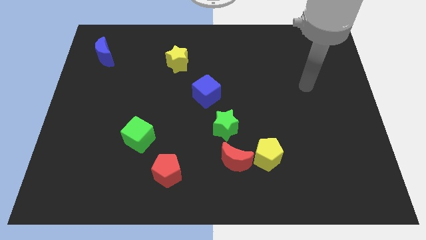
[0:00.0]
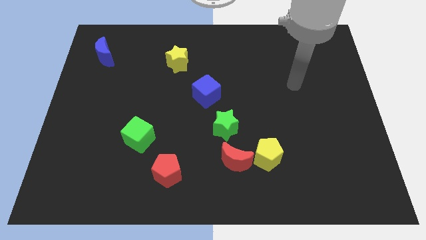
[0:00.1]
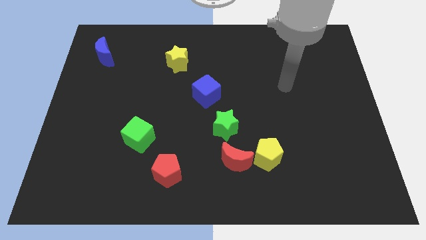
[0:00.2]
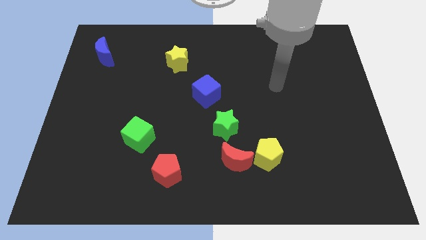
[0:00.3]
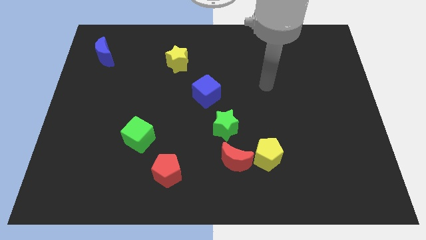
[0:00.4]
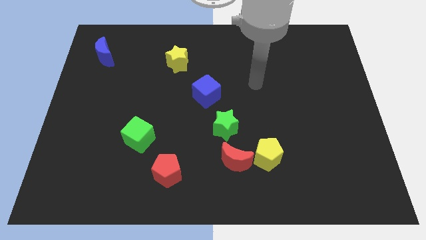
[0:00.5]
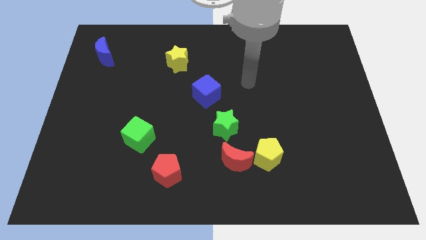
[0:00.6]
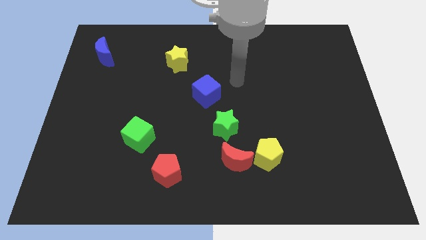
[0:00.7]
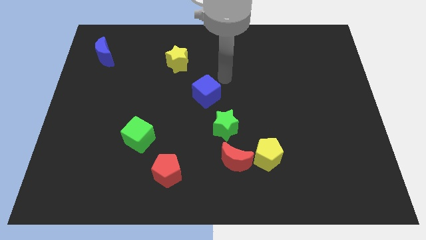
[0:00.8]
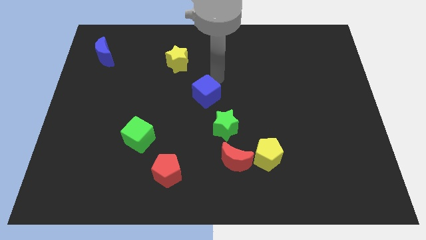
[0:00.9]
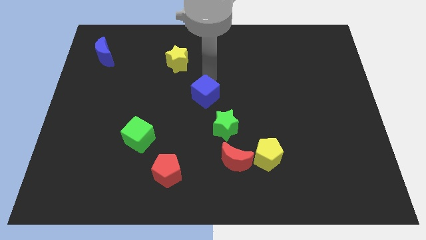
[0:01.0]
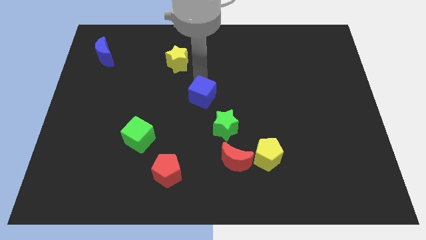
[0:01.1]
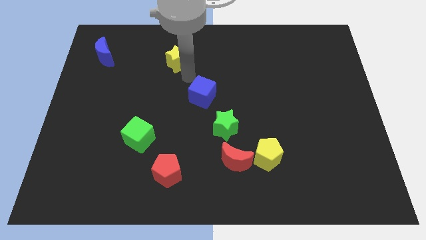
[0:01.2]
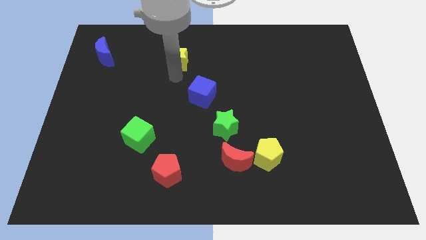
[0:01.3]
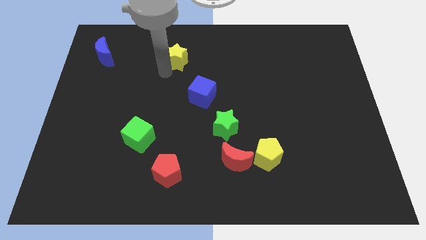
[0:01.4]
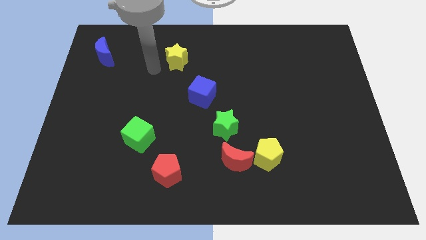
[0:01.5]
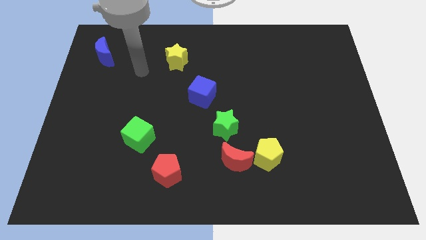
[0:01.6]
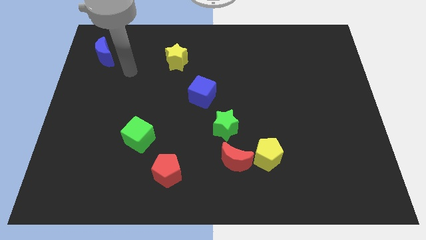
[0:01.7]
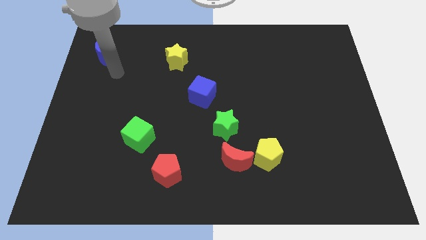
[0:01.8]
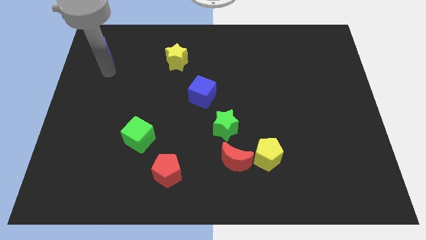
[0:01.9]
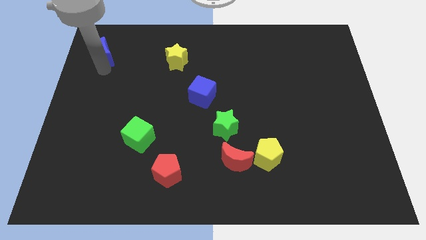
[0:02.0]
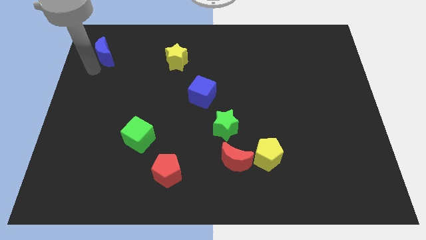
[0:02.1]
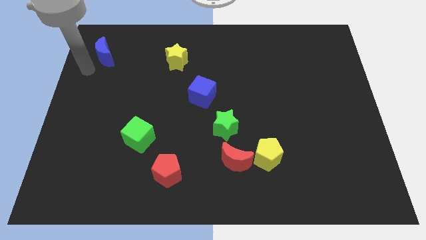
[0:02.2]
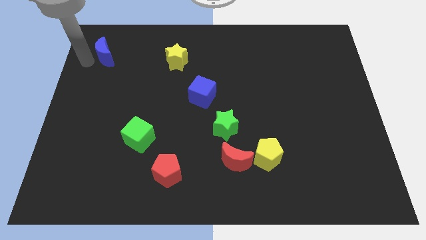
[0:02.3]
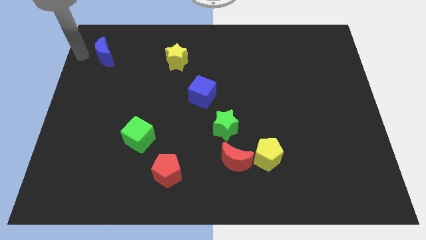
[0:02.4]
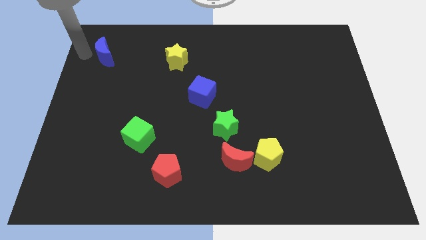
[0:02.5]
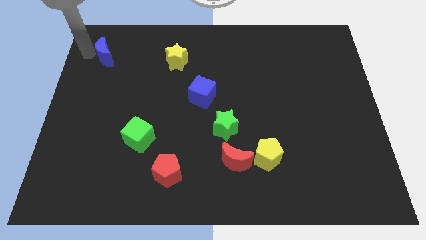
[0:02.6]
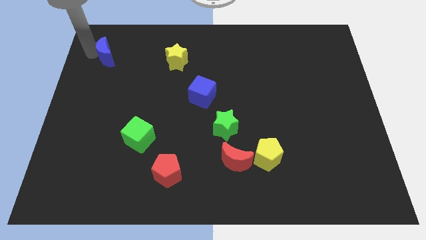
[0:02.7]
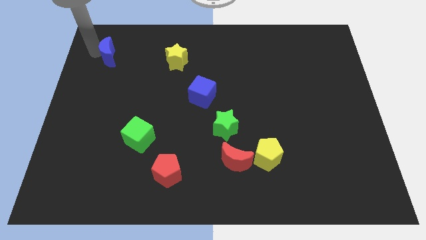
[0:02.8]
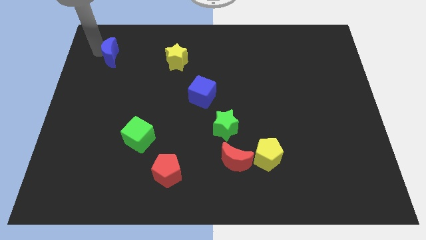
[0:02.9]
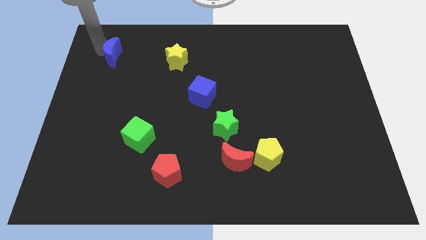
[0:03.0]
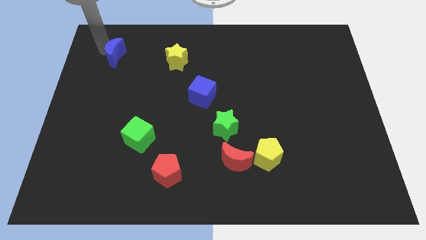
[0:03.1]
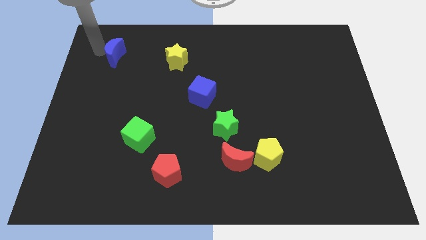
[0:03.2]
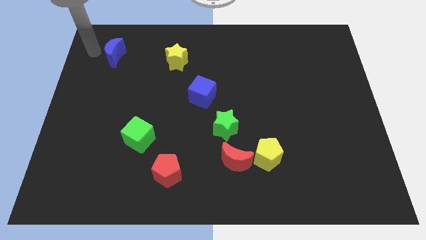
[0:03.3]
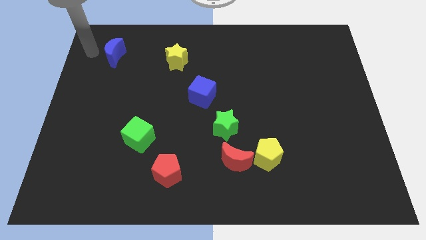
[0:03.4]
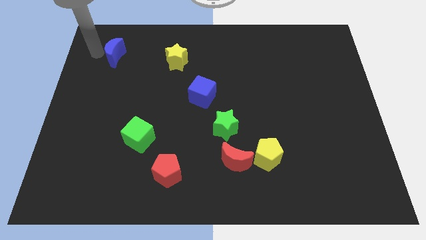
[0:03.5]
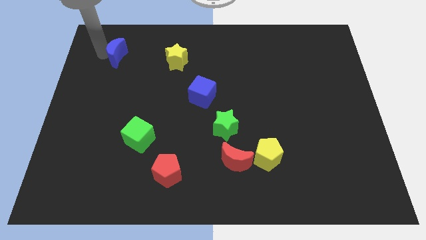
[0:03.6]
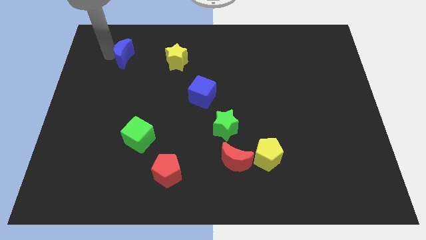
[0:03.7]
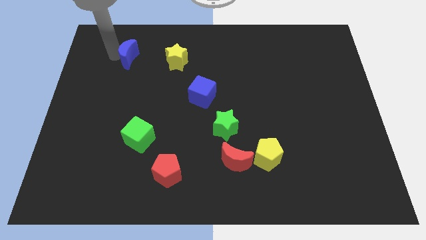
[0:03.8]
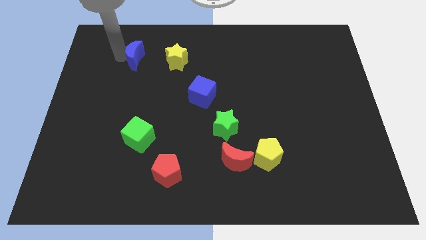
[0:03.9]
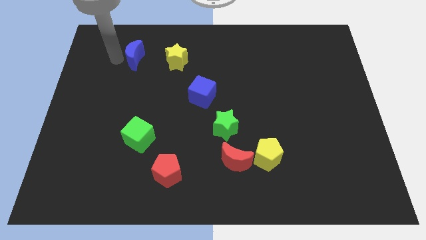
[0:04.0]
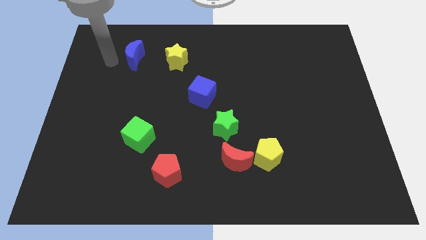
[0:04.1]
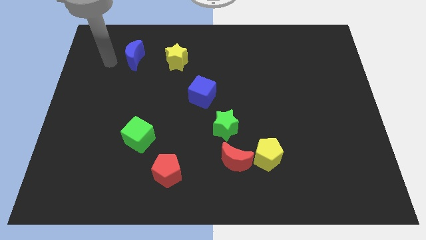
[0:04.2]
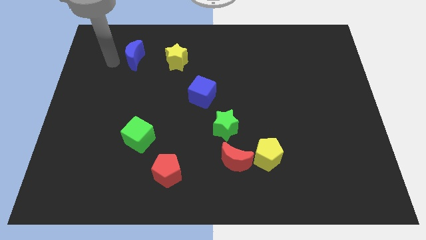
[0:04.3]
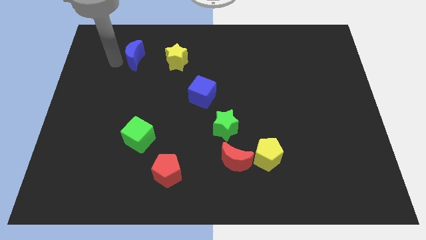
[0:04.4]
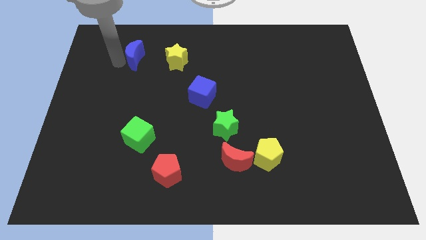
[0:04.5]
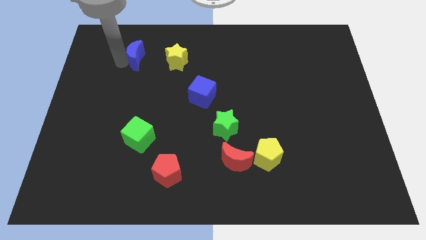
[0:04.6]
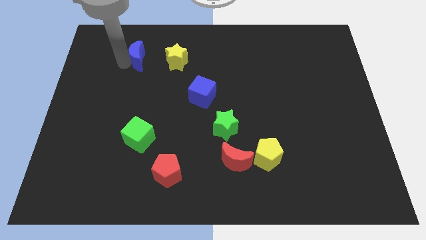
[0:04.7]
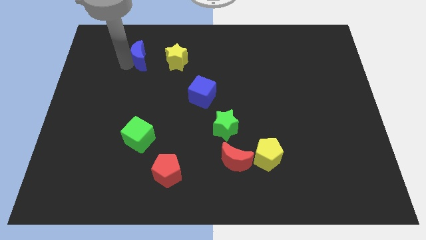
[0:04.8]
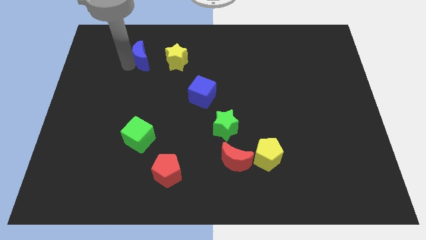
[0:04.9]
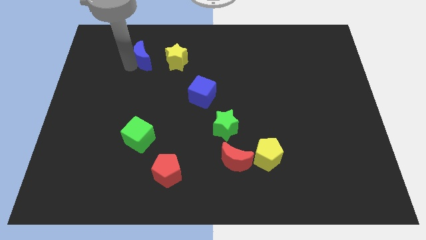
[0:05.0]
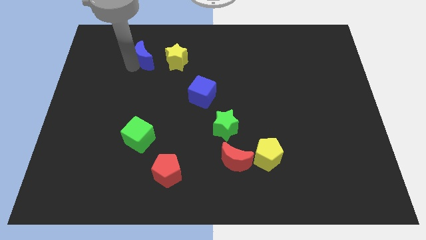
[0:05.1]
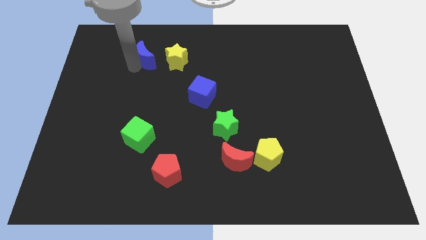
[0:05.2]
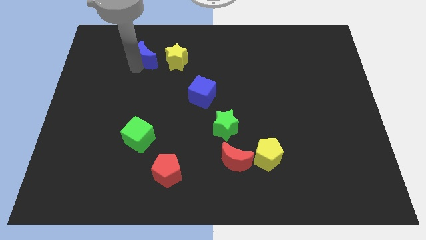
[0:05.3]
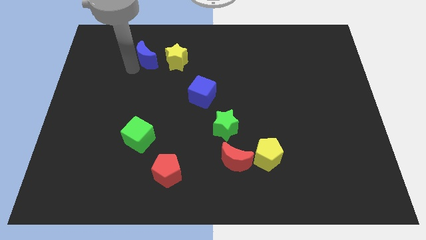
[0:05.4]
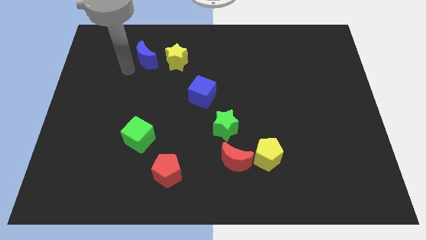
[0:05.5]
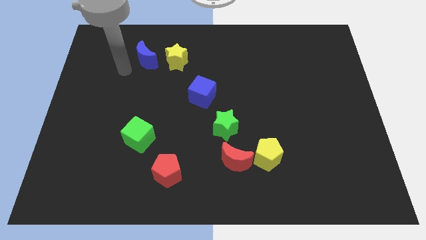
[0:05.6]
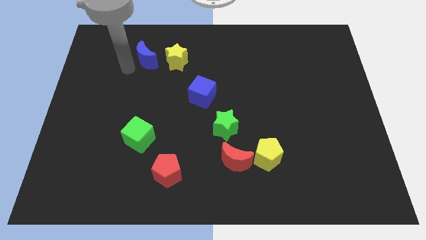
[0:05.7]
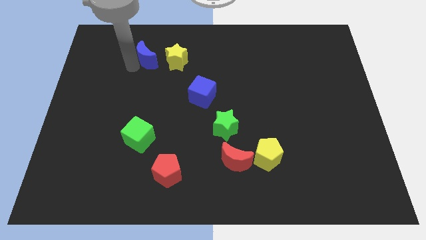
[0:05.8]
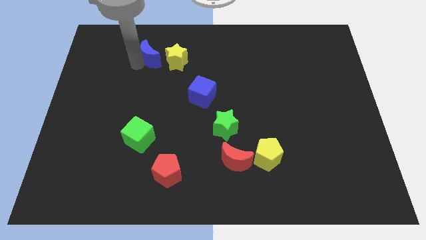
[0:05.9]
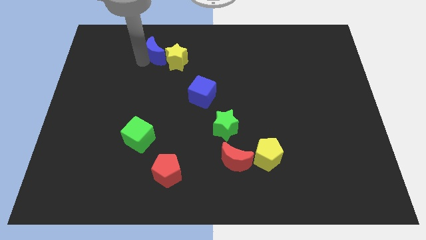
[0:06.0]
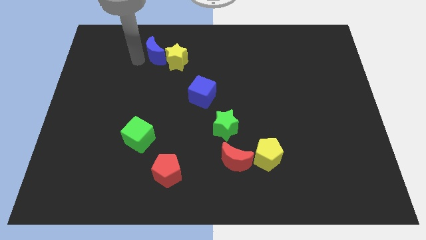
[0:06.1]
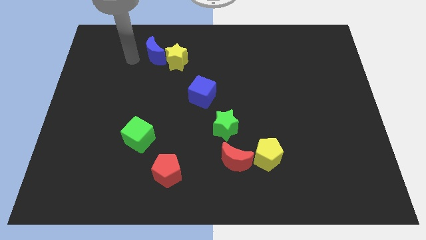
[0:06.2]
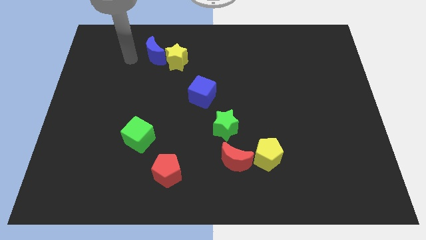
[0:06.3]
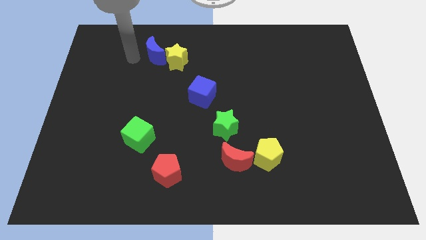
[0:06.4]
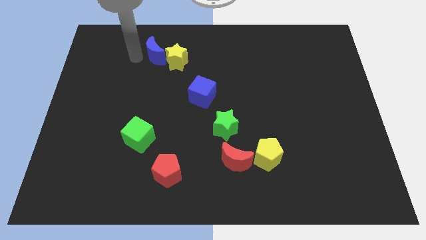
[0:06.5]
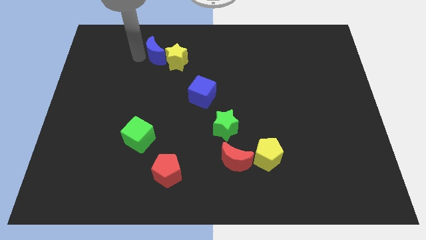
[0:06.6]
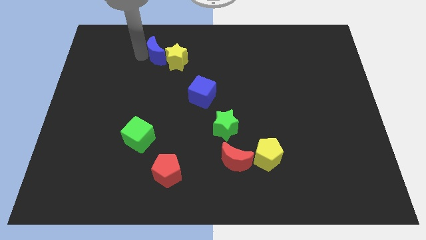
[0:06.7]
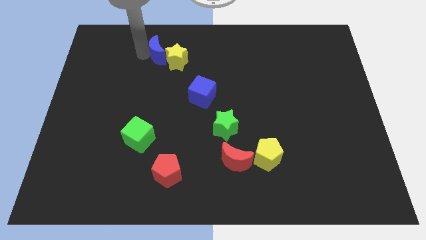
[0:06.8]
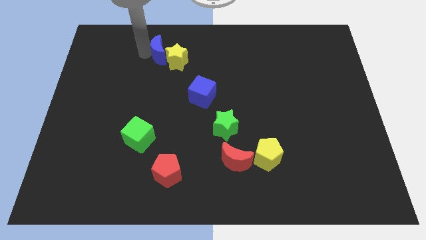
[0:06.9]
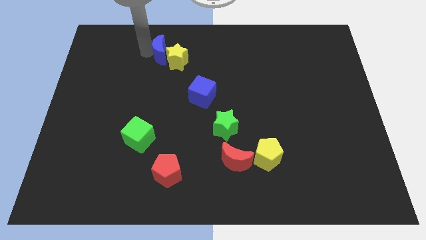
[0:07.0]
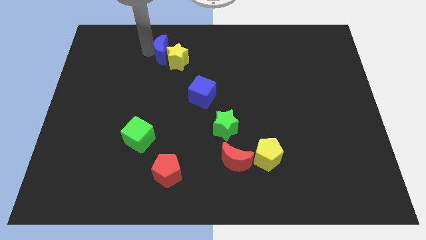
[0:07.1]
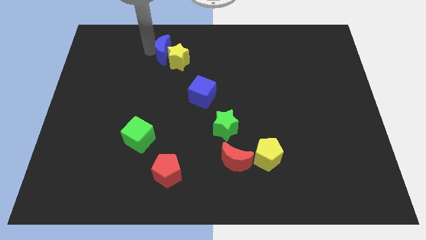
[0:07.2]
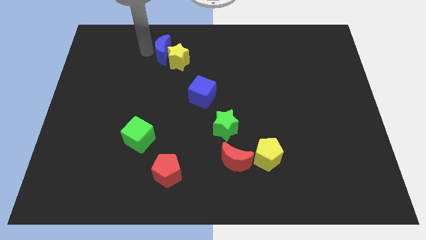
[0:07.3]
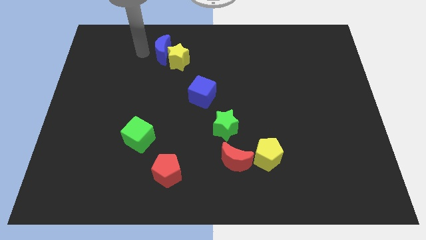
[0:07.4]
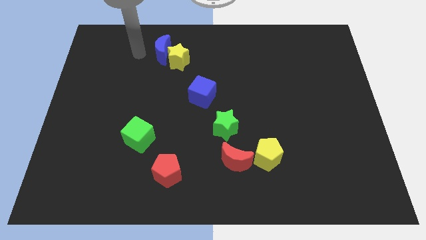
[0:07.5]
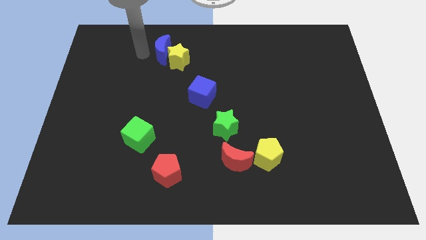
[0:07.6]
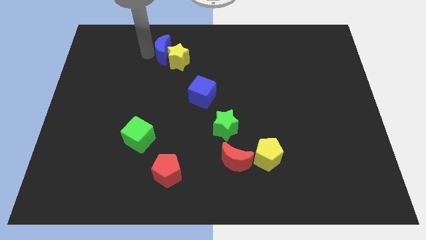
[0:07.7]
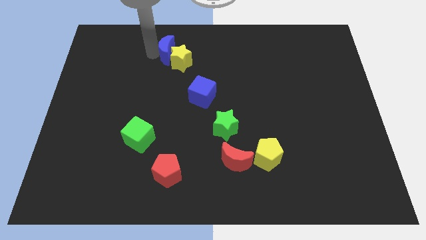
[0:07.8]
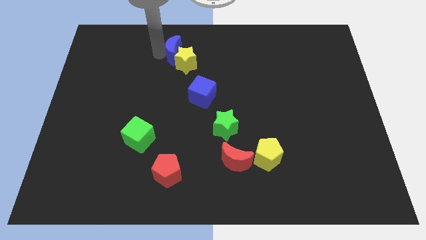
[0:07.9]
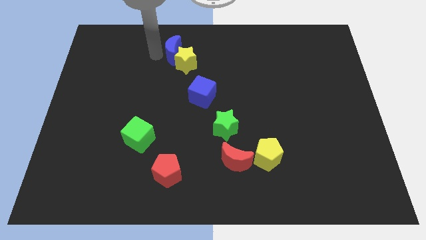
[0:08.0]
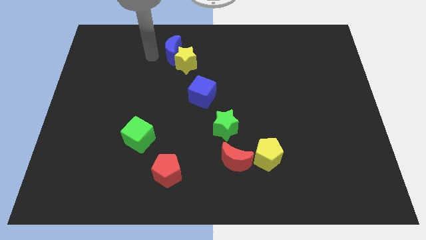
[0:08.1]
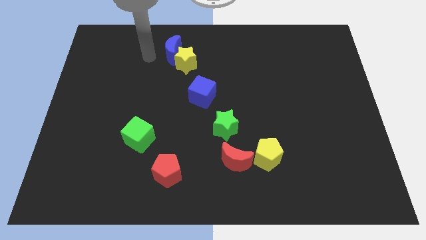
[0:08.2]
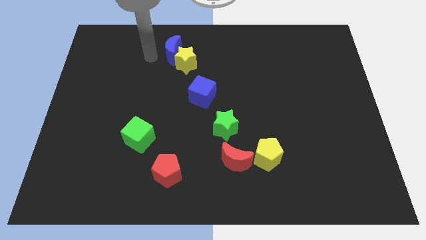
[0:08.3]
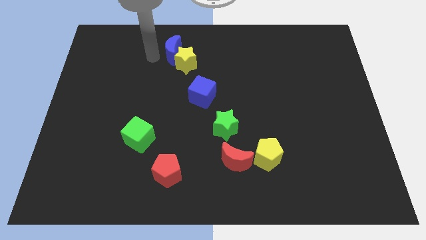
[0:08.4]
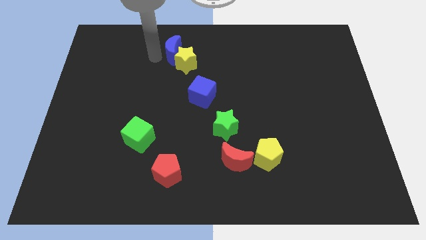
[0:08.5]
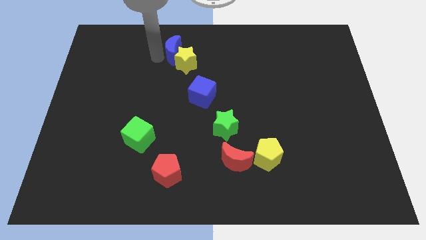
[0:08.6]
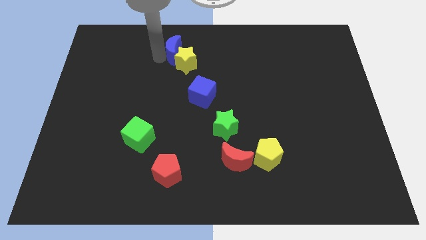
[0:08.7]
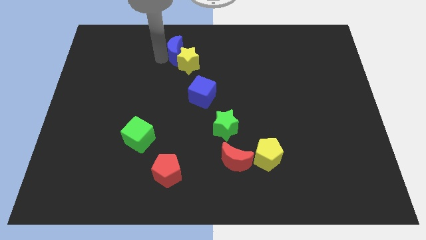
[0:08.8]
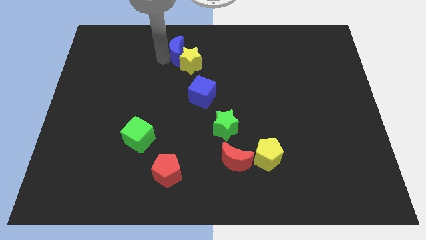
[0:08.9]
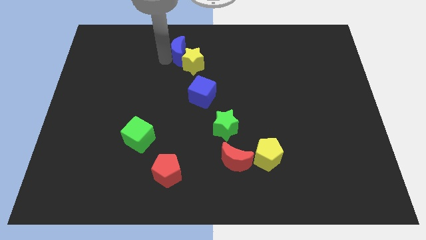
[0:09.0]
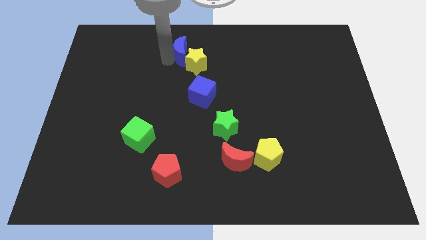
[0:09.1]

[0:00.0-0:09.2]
push the blue moon to the right
